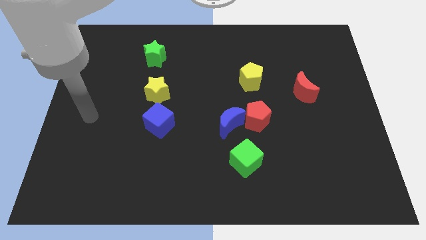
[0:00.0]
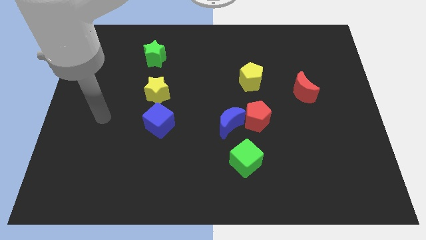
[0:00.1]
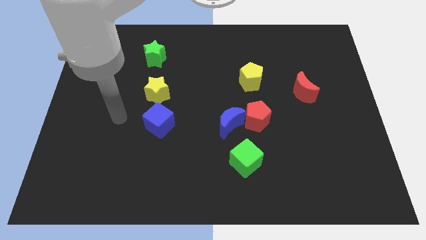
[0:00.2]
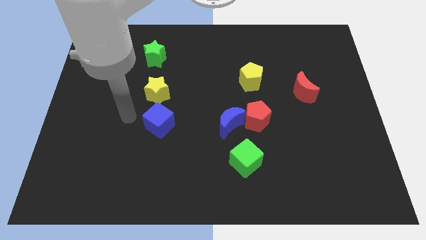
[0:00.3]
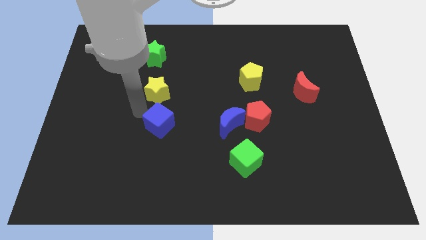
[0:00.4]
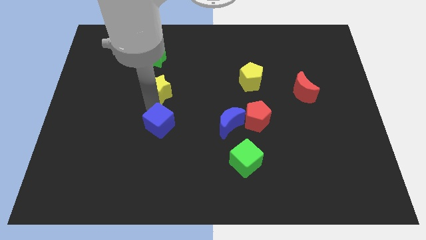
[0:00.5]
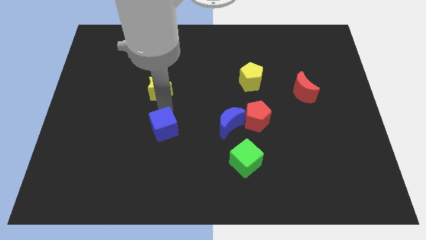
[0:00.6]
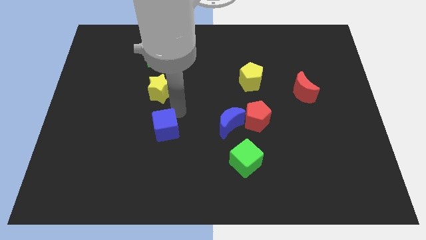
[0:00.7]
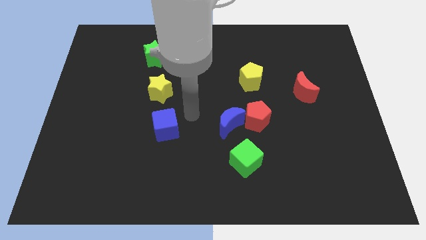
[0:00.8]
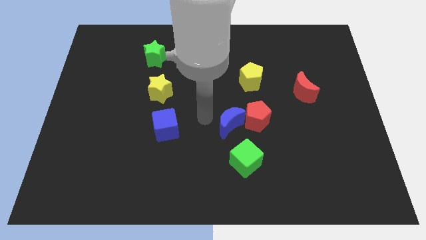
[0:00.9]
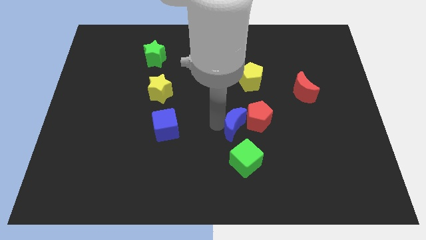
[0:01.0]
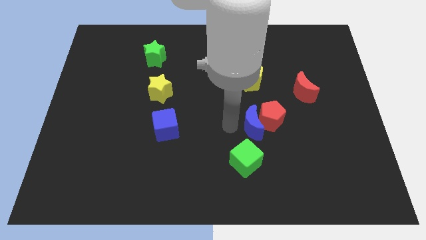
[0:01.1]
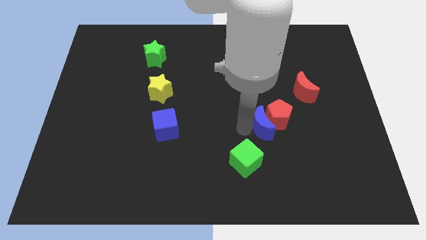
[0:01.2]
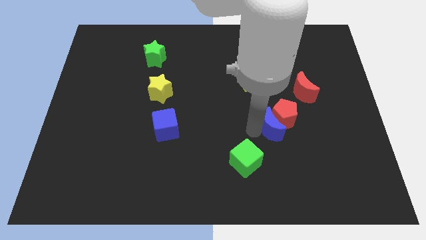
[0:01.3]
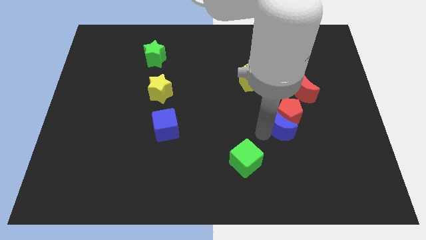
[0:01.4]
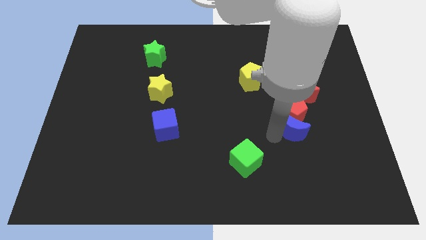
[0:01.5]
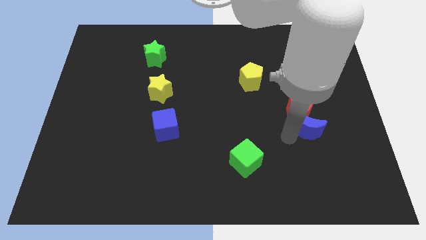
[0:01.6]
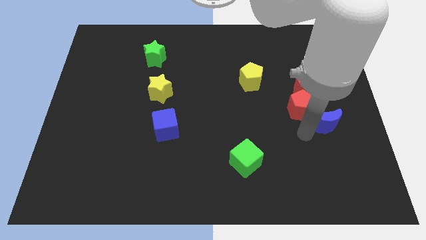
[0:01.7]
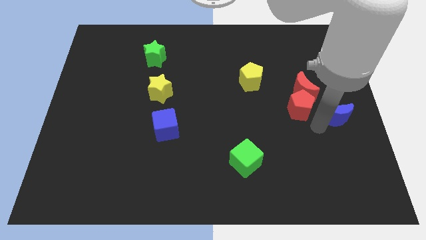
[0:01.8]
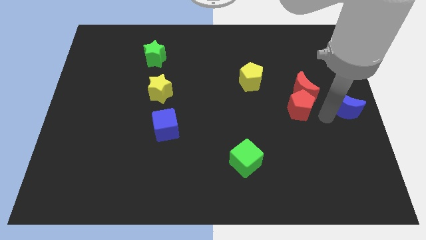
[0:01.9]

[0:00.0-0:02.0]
move the red pentagon away from the blue moon

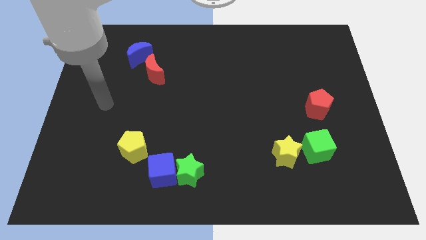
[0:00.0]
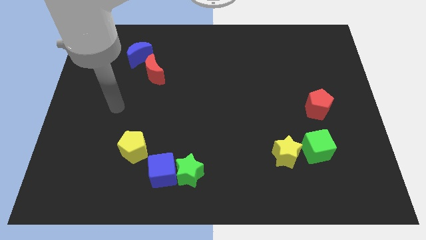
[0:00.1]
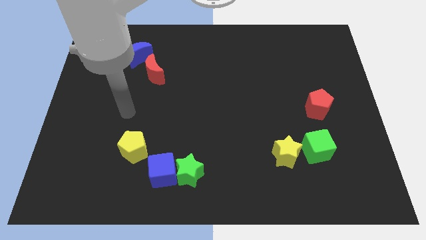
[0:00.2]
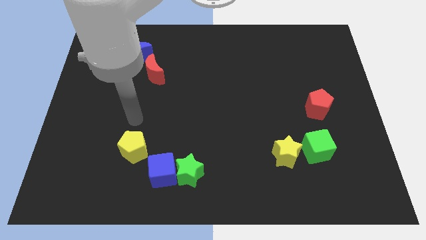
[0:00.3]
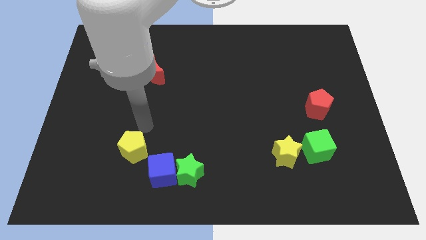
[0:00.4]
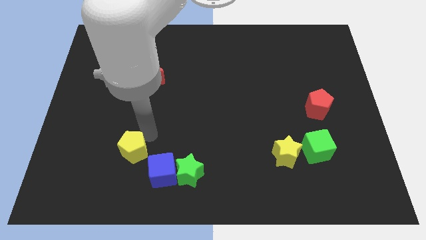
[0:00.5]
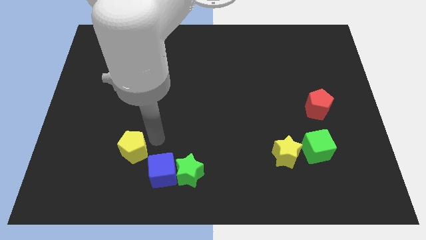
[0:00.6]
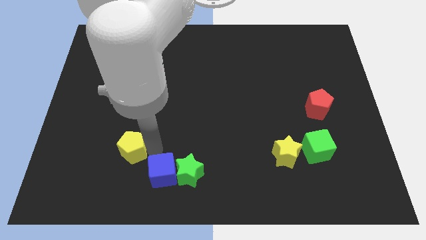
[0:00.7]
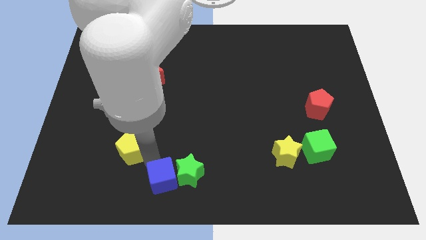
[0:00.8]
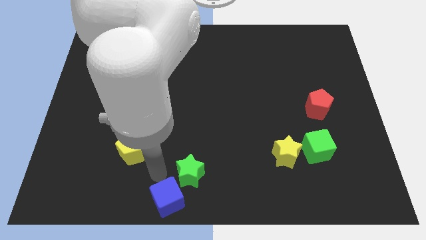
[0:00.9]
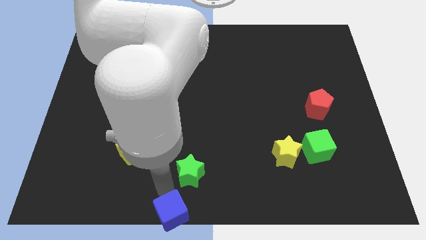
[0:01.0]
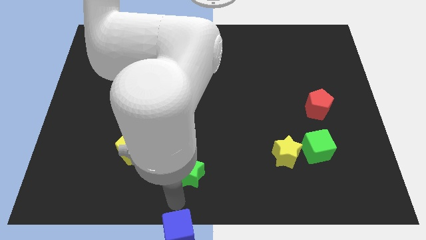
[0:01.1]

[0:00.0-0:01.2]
separate the green star from the blue cube

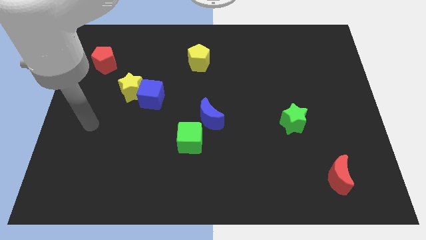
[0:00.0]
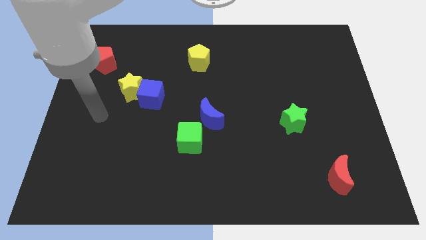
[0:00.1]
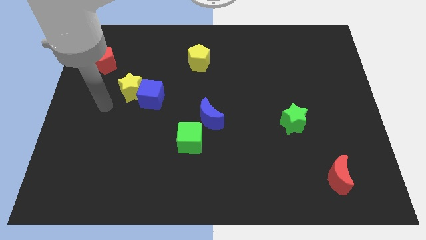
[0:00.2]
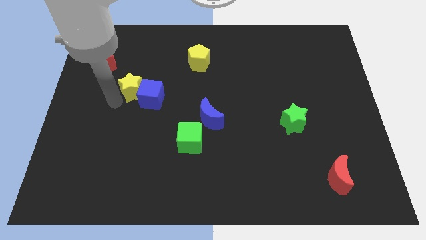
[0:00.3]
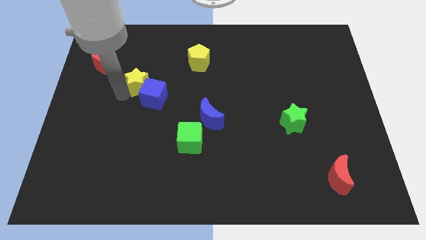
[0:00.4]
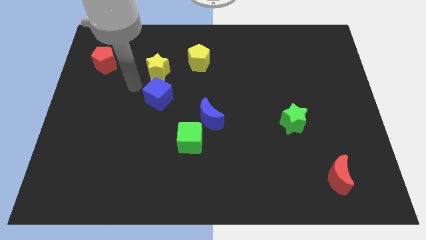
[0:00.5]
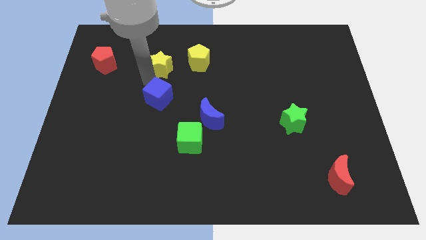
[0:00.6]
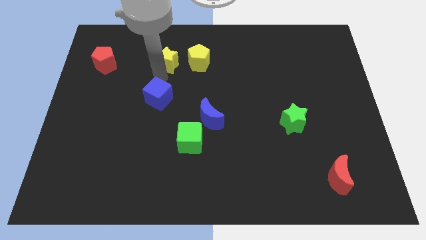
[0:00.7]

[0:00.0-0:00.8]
pull the blue cube apart from the yellow star

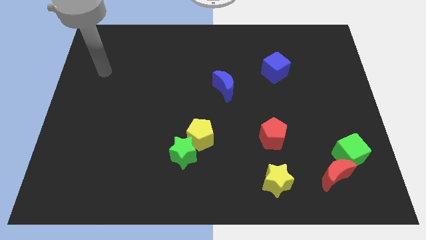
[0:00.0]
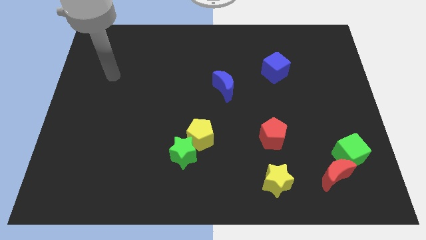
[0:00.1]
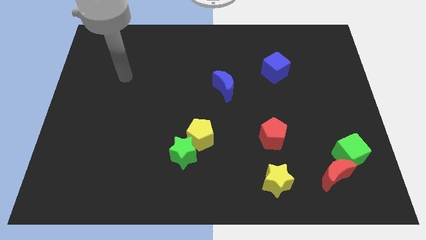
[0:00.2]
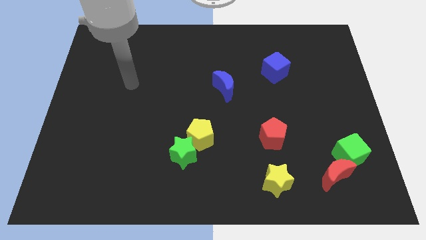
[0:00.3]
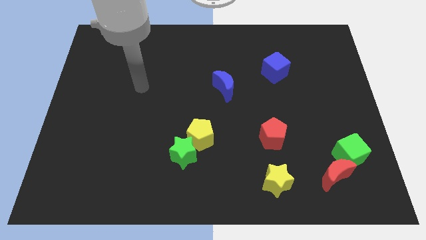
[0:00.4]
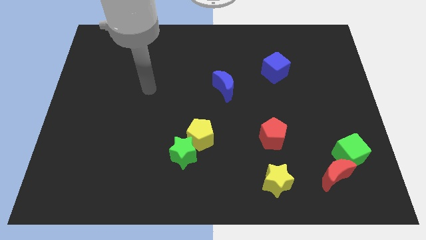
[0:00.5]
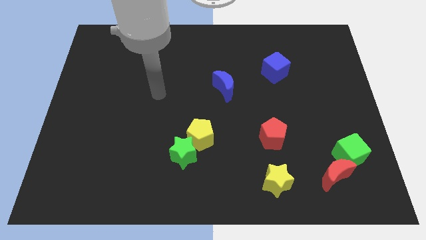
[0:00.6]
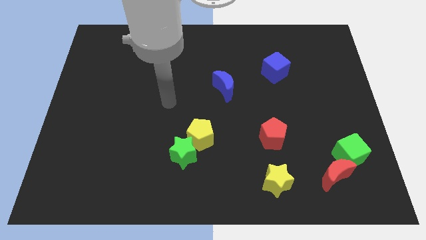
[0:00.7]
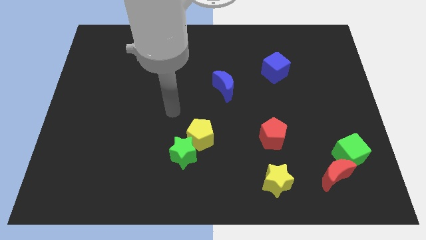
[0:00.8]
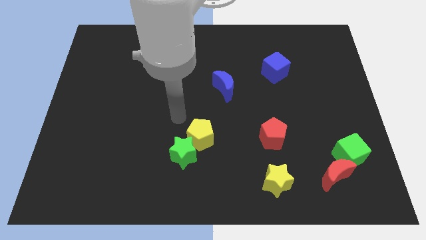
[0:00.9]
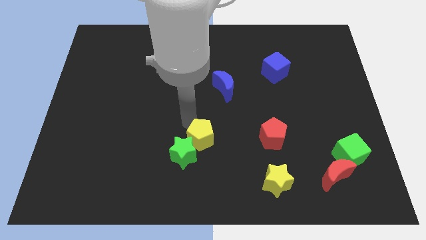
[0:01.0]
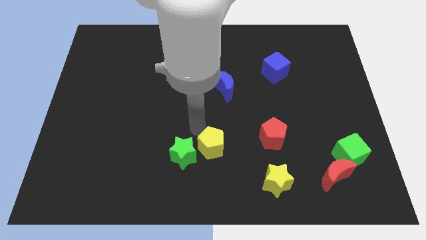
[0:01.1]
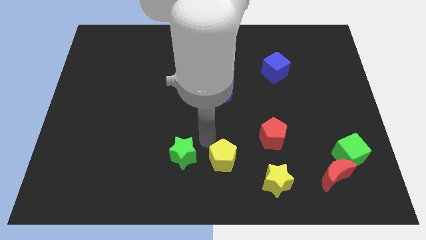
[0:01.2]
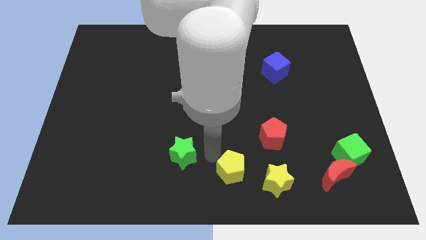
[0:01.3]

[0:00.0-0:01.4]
separate the green star from the yellow pentagon

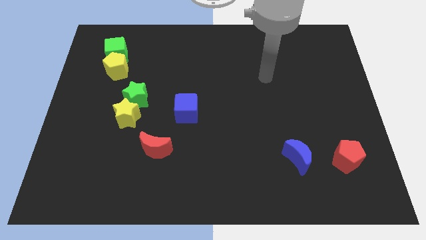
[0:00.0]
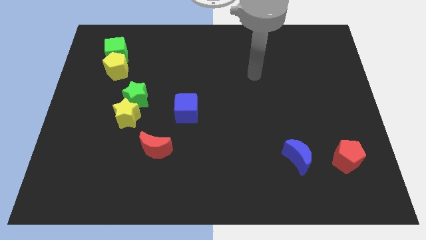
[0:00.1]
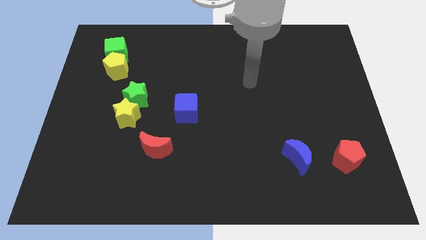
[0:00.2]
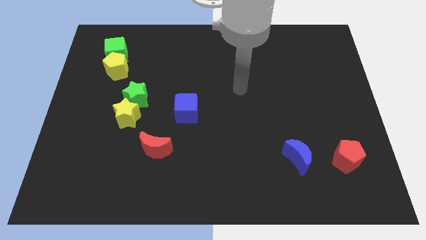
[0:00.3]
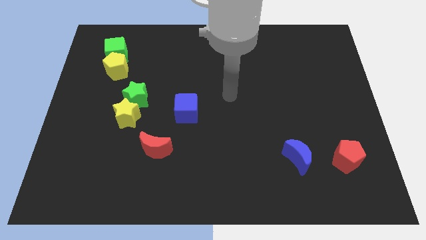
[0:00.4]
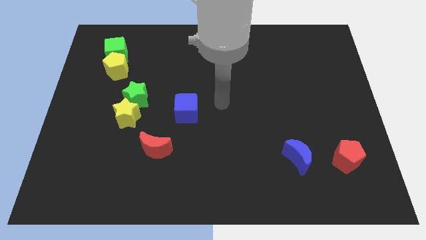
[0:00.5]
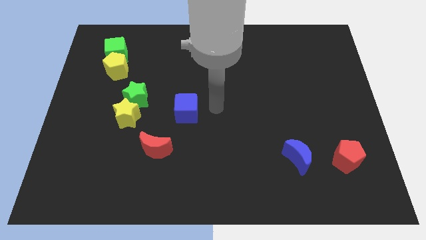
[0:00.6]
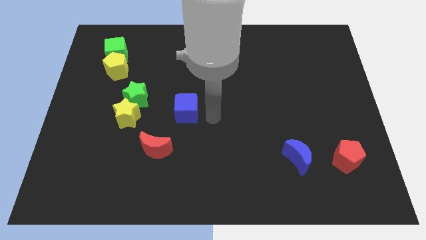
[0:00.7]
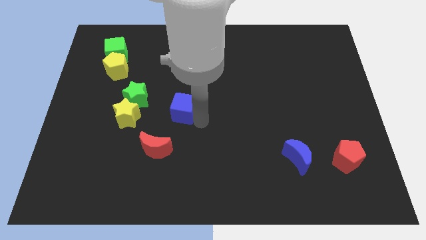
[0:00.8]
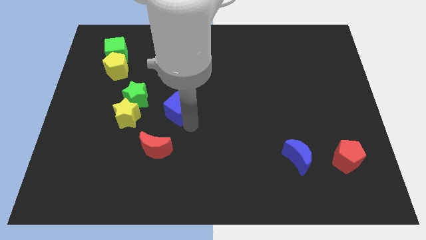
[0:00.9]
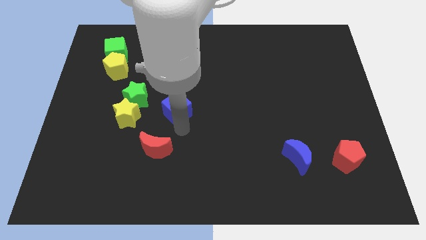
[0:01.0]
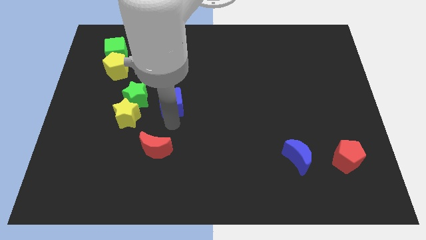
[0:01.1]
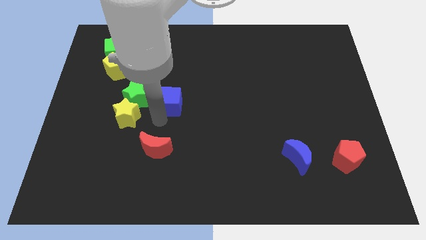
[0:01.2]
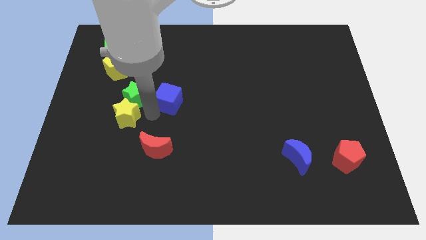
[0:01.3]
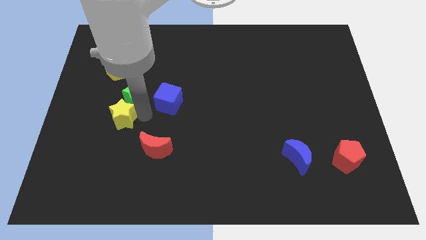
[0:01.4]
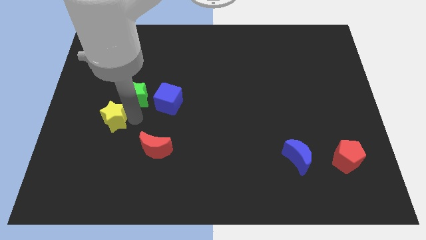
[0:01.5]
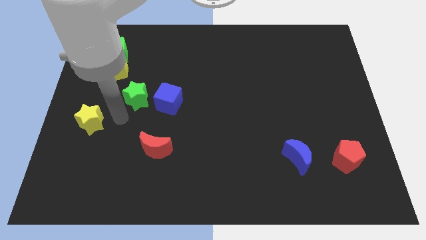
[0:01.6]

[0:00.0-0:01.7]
move the green star away from the yellow star

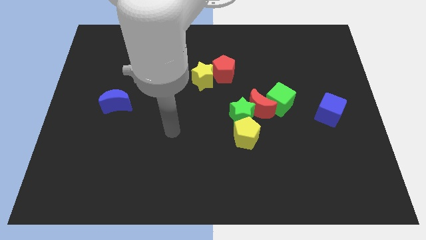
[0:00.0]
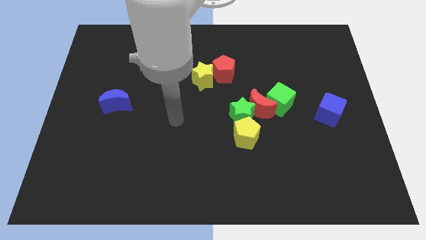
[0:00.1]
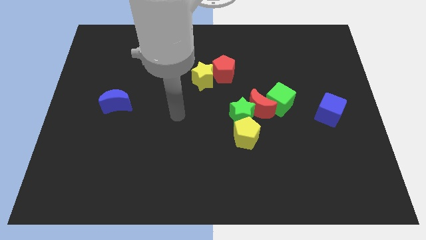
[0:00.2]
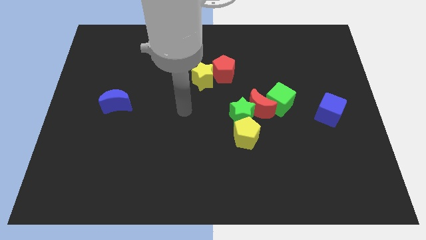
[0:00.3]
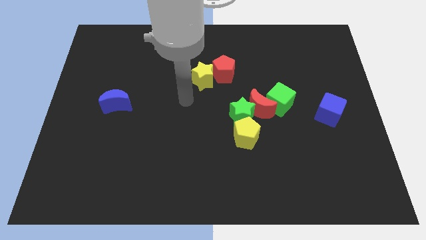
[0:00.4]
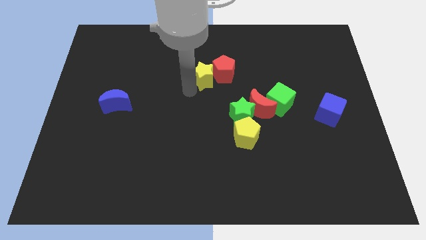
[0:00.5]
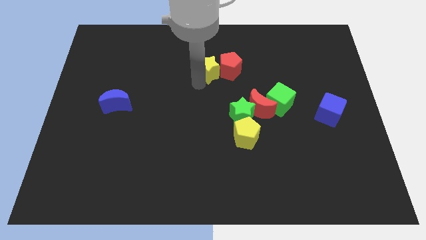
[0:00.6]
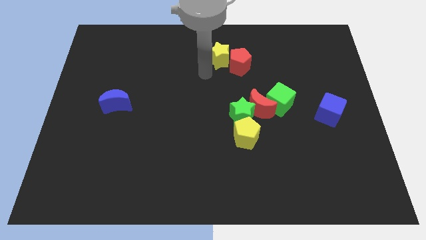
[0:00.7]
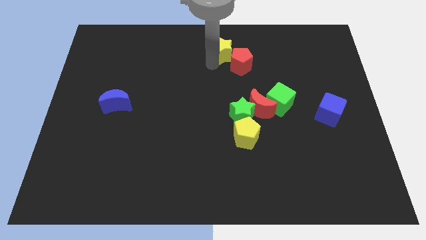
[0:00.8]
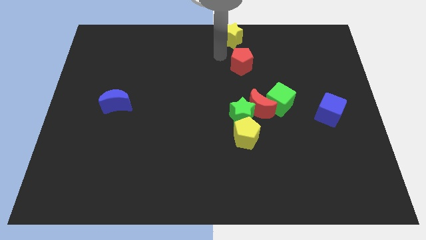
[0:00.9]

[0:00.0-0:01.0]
pull the red pentagon apart from the yellow star

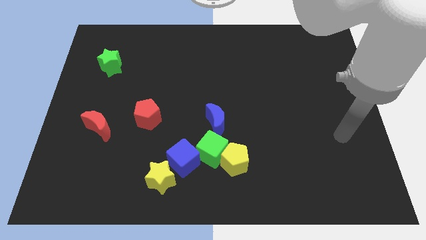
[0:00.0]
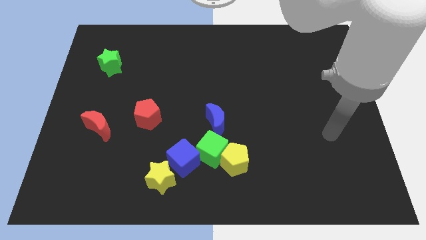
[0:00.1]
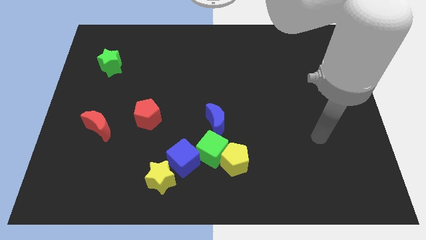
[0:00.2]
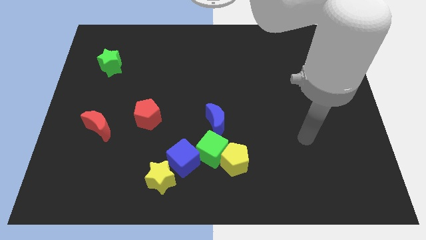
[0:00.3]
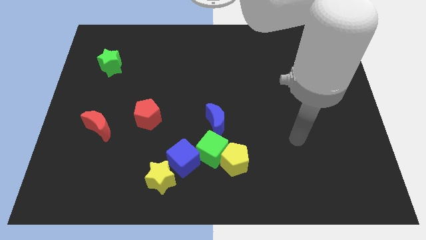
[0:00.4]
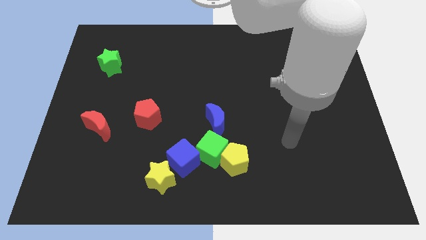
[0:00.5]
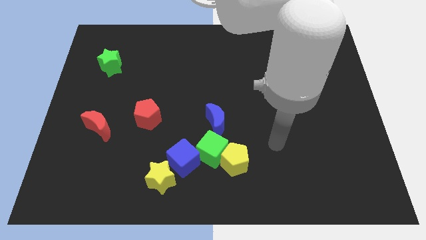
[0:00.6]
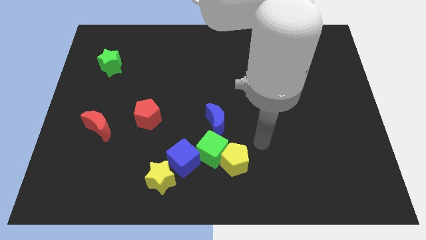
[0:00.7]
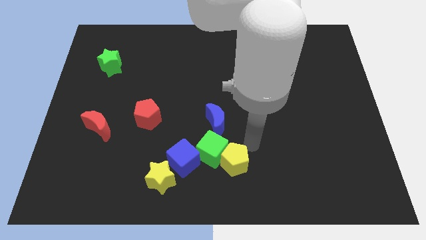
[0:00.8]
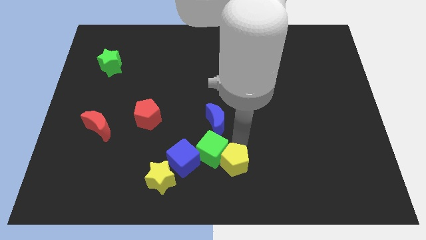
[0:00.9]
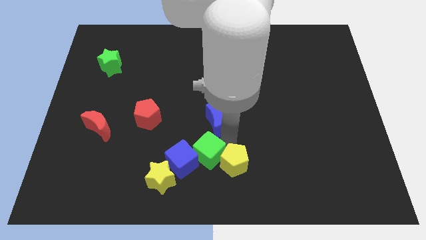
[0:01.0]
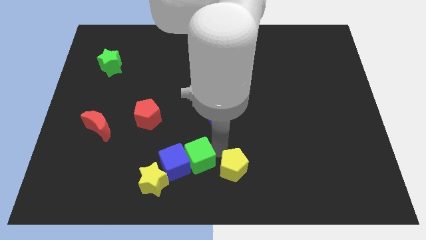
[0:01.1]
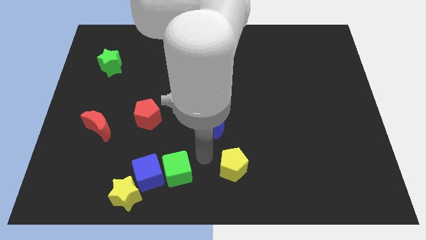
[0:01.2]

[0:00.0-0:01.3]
move the yellow pentagon away from the green cube
